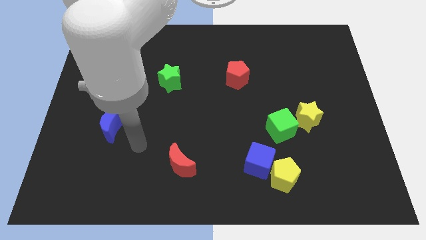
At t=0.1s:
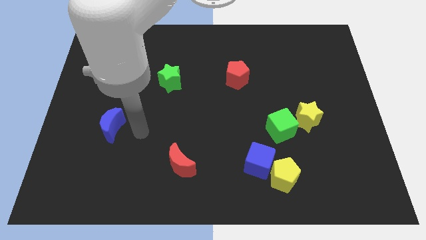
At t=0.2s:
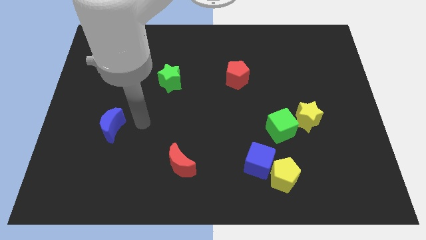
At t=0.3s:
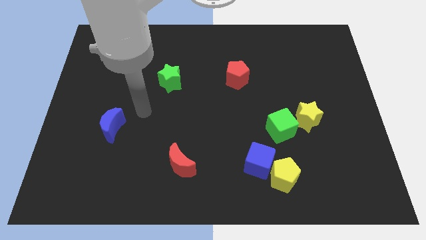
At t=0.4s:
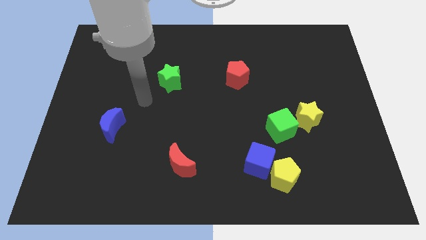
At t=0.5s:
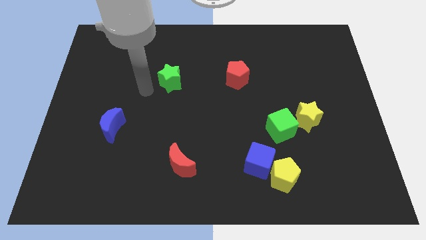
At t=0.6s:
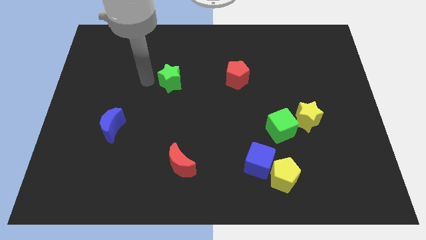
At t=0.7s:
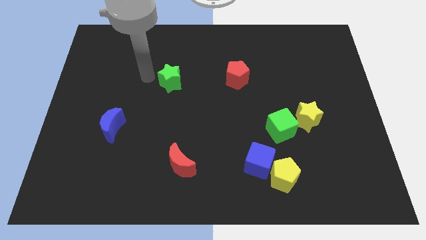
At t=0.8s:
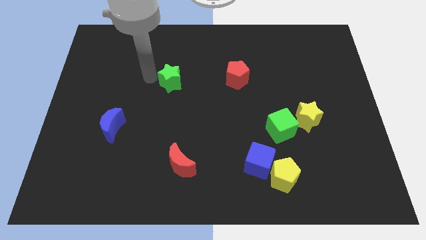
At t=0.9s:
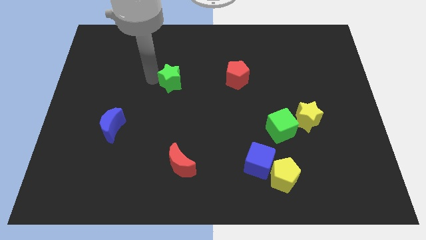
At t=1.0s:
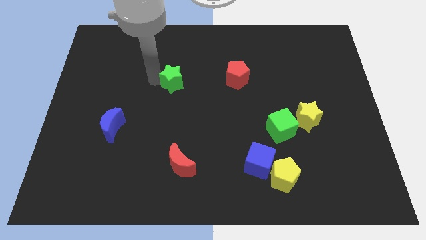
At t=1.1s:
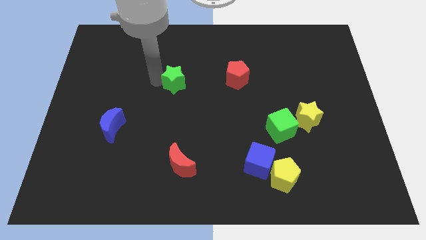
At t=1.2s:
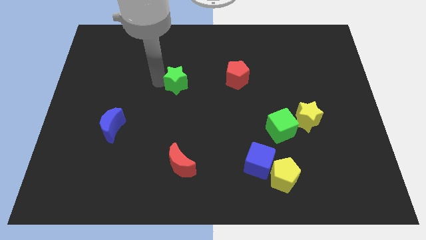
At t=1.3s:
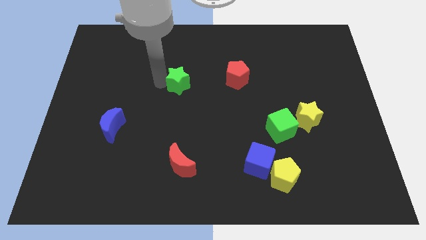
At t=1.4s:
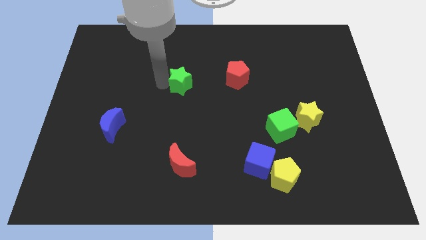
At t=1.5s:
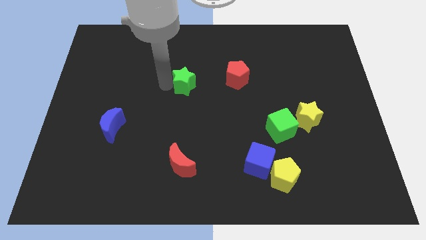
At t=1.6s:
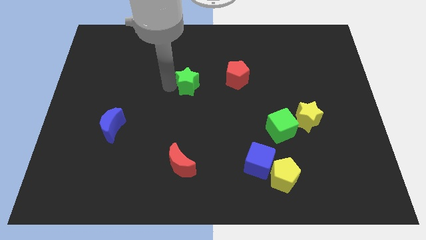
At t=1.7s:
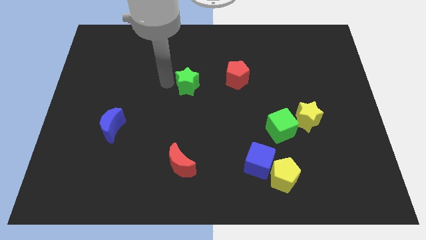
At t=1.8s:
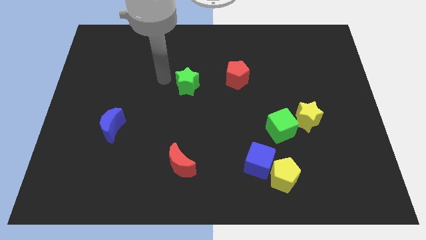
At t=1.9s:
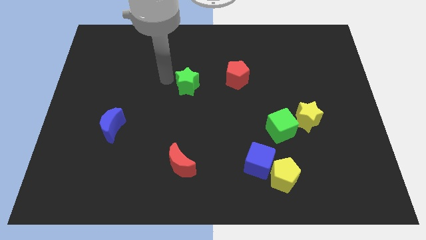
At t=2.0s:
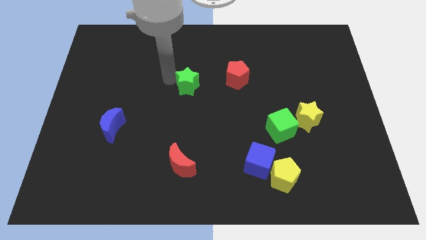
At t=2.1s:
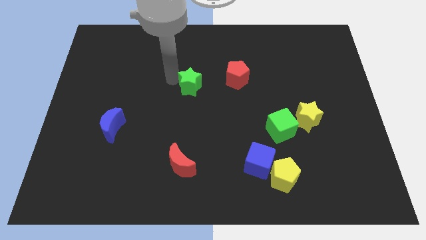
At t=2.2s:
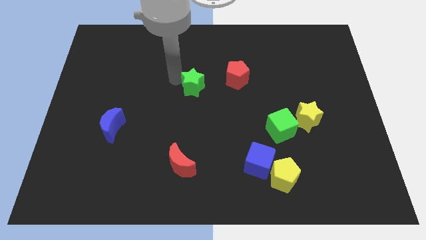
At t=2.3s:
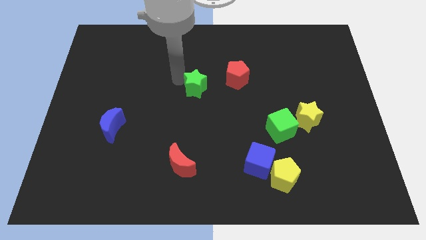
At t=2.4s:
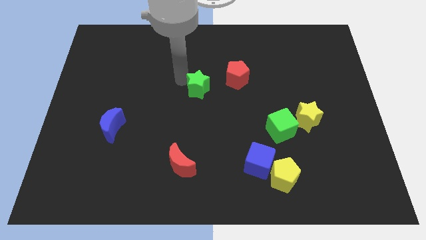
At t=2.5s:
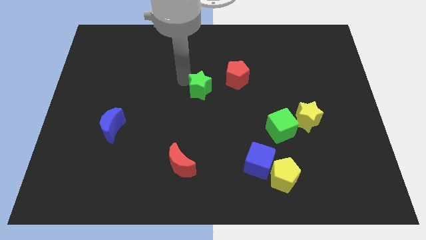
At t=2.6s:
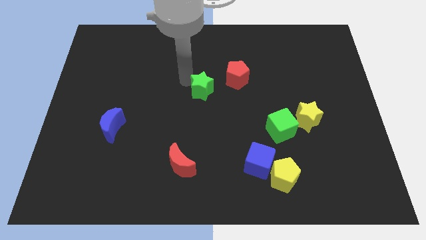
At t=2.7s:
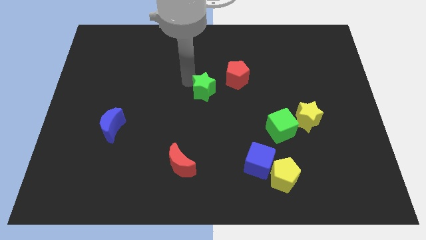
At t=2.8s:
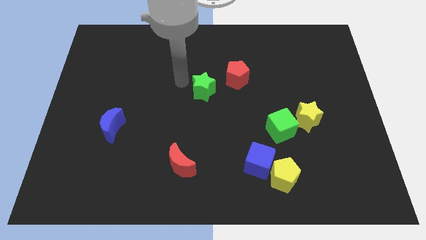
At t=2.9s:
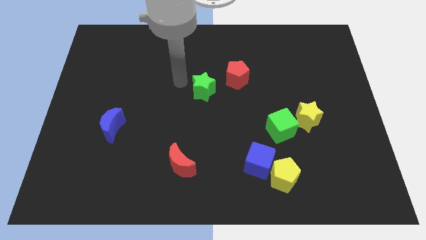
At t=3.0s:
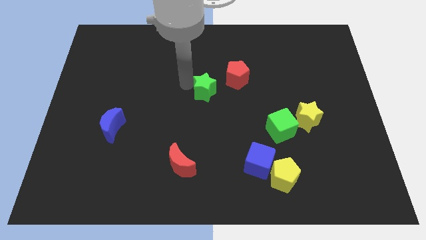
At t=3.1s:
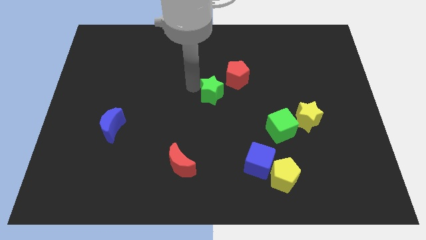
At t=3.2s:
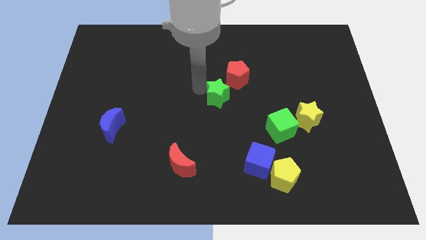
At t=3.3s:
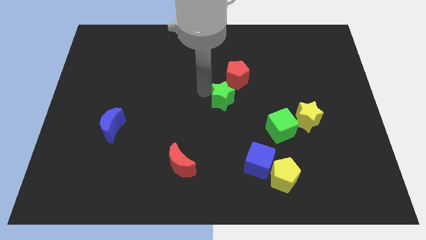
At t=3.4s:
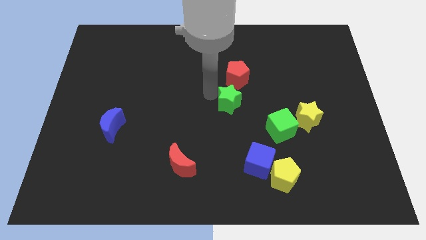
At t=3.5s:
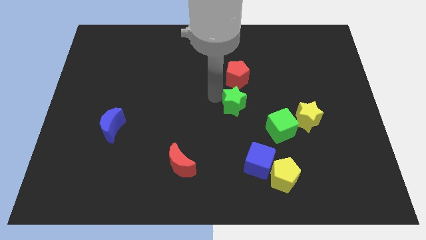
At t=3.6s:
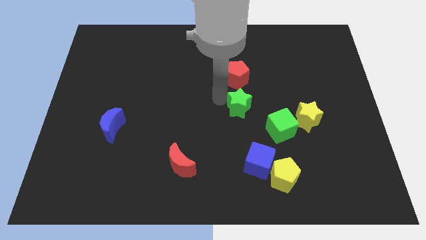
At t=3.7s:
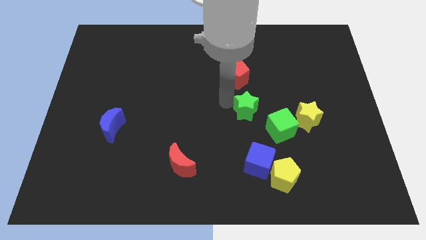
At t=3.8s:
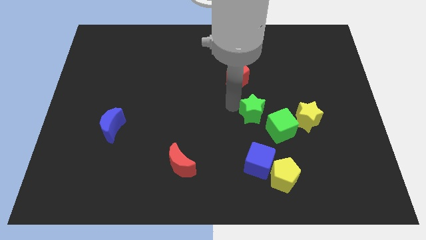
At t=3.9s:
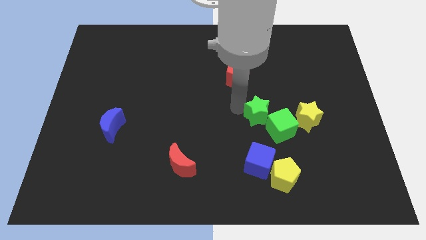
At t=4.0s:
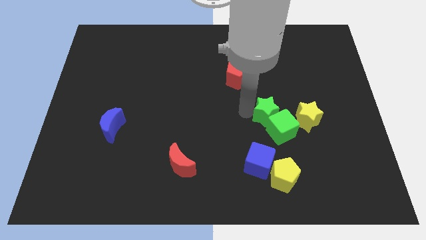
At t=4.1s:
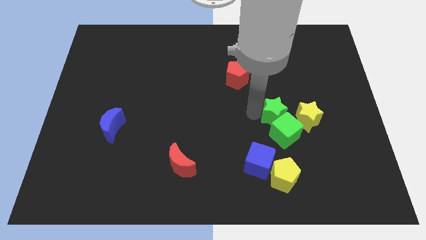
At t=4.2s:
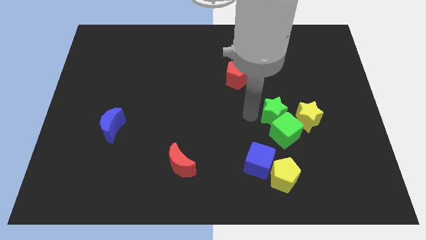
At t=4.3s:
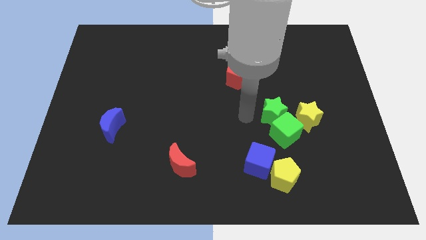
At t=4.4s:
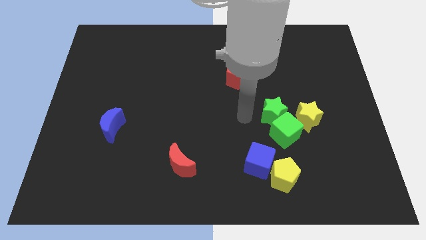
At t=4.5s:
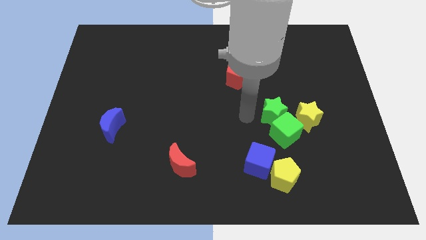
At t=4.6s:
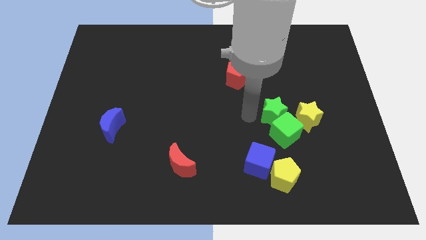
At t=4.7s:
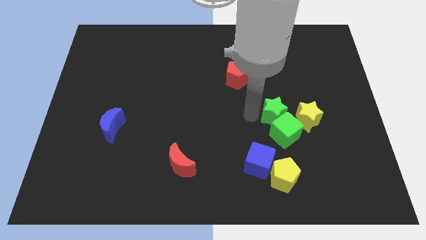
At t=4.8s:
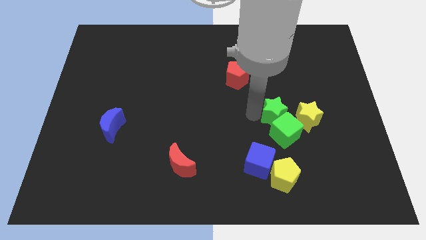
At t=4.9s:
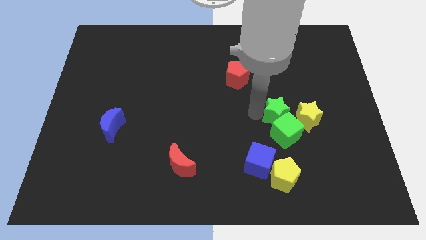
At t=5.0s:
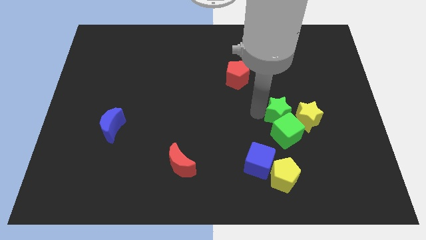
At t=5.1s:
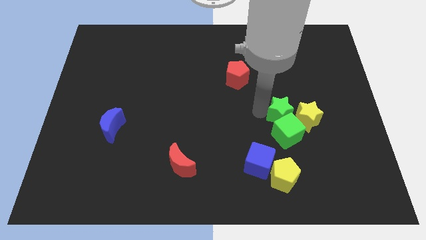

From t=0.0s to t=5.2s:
push the green star to the yellow star

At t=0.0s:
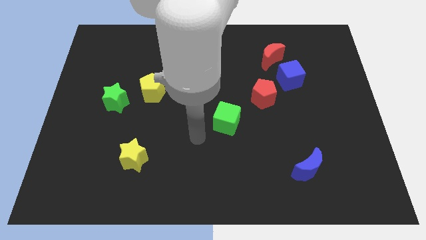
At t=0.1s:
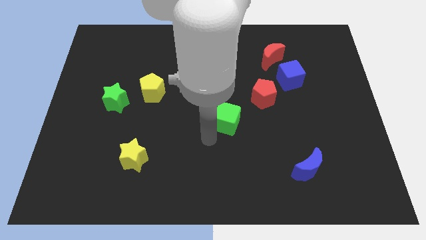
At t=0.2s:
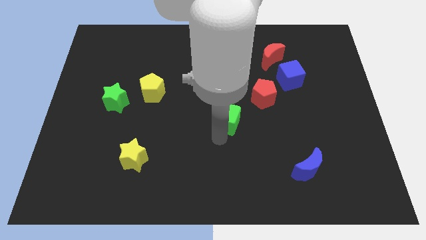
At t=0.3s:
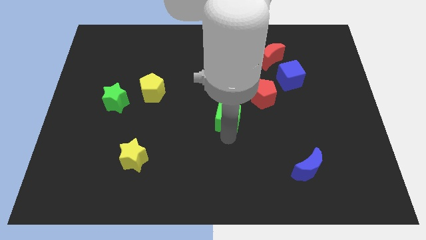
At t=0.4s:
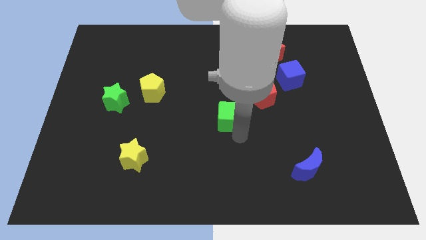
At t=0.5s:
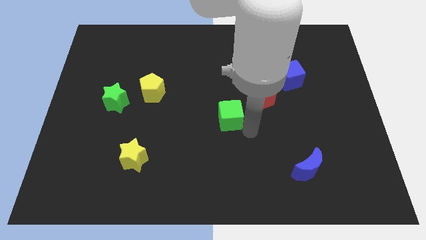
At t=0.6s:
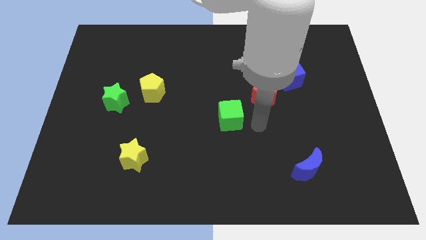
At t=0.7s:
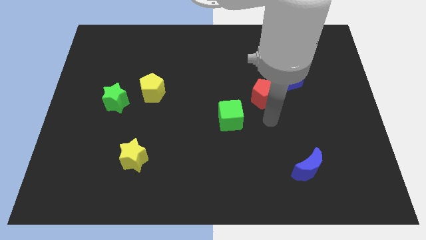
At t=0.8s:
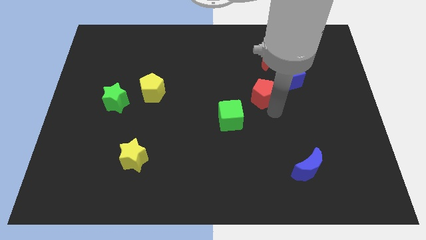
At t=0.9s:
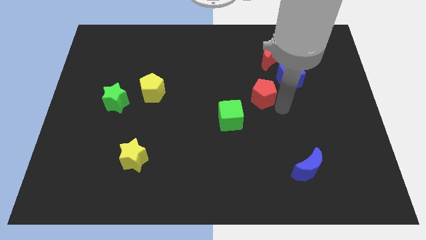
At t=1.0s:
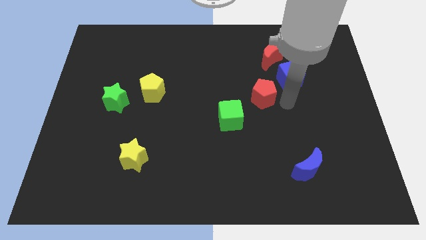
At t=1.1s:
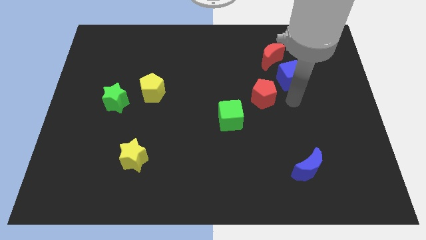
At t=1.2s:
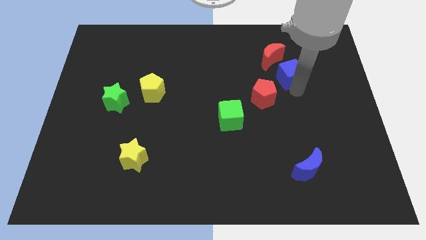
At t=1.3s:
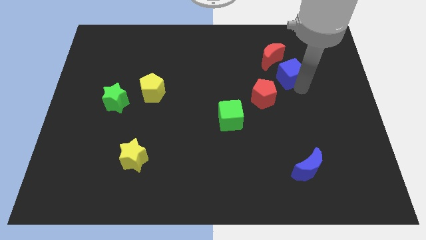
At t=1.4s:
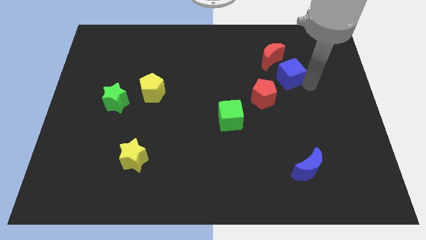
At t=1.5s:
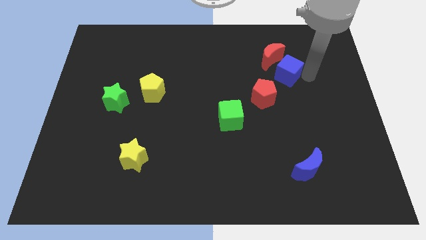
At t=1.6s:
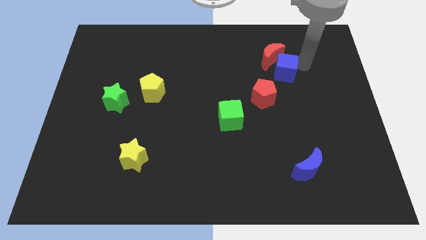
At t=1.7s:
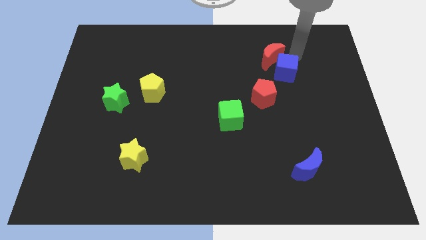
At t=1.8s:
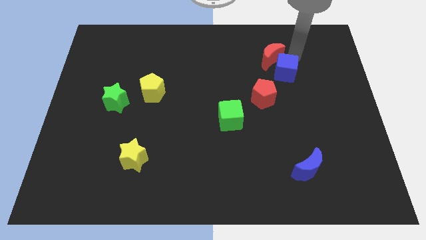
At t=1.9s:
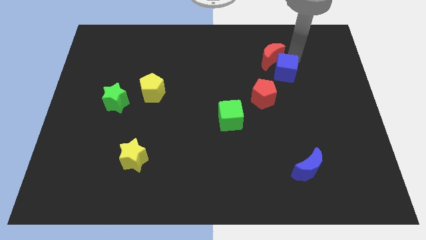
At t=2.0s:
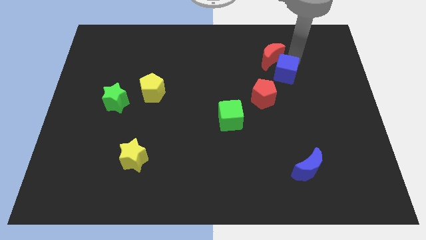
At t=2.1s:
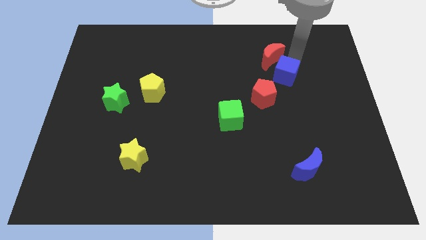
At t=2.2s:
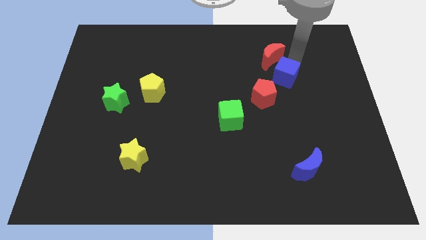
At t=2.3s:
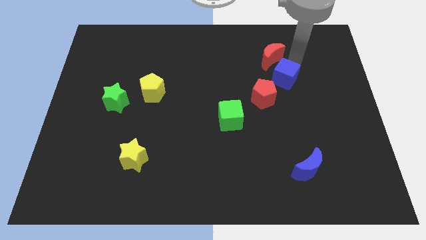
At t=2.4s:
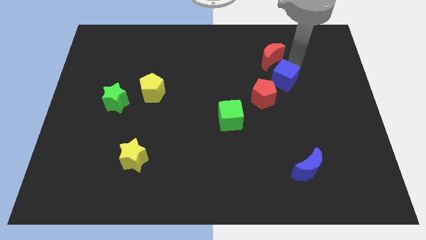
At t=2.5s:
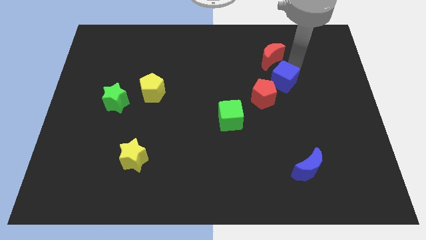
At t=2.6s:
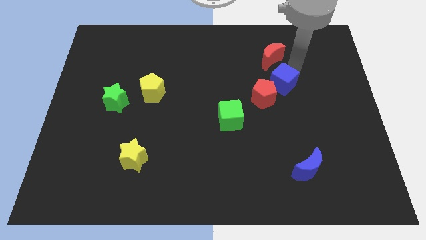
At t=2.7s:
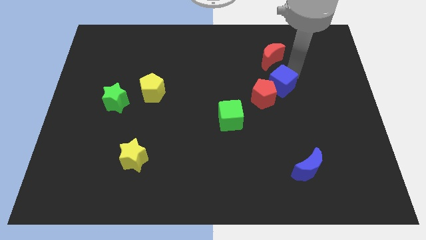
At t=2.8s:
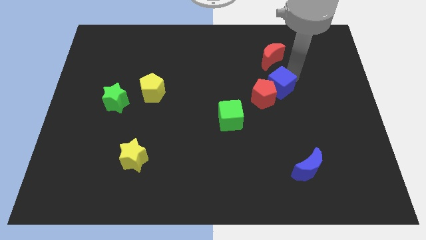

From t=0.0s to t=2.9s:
push the blue cube towards the red pentagon
